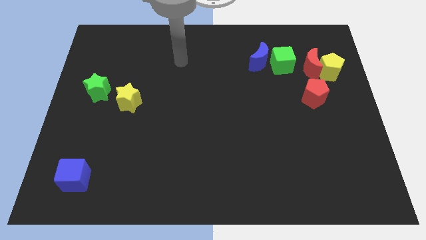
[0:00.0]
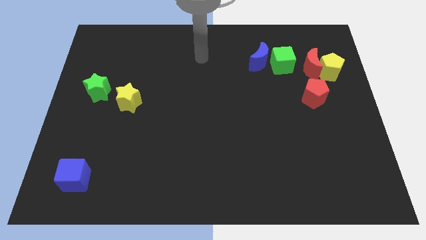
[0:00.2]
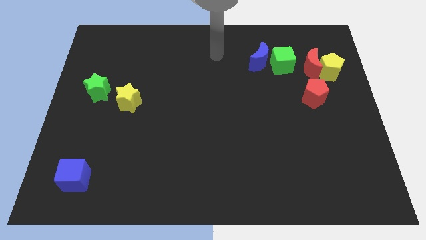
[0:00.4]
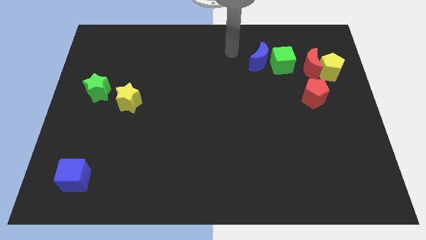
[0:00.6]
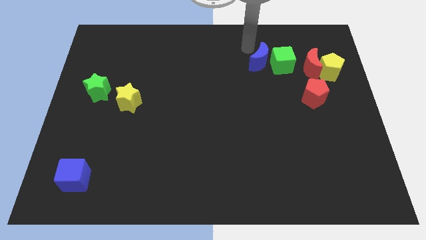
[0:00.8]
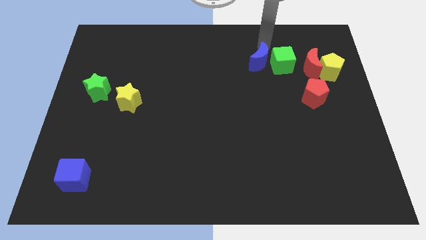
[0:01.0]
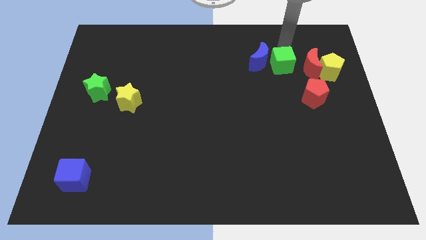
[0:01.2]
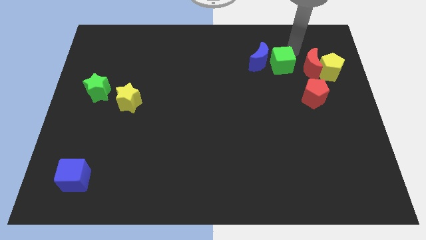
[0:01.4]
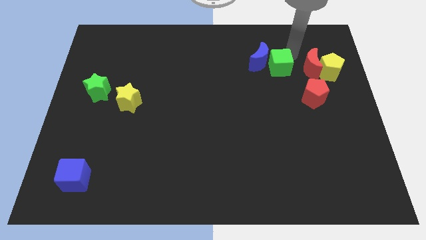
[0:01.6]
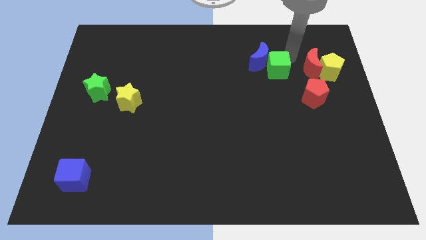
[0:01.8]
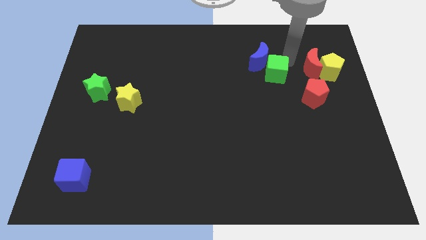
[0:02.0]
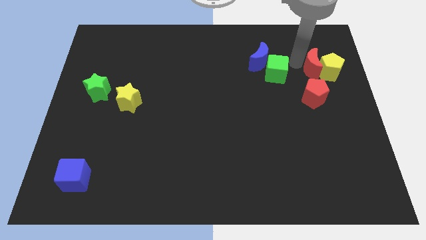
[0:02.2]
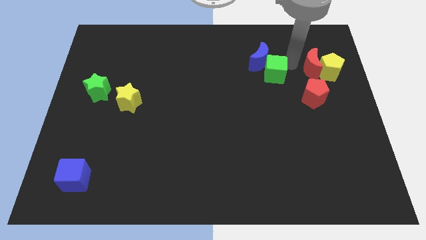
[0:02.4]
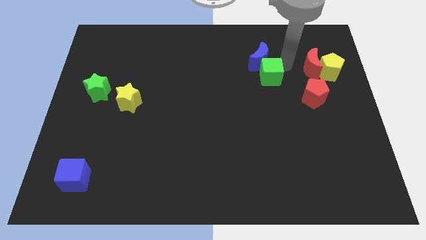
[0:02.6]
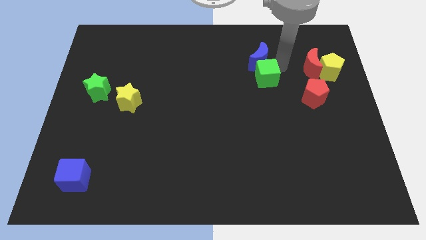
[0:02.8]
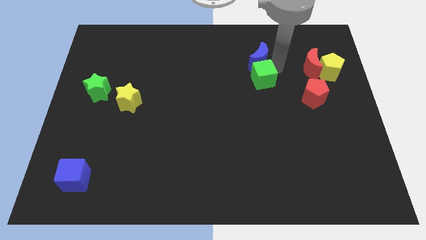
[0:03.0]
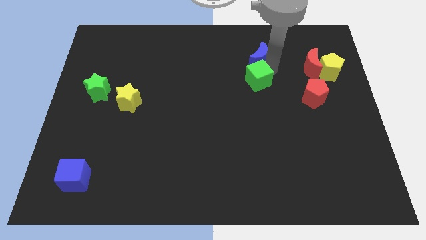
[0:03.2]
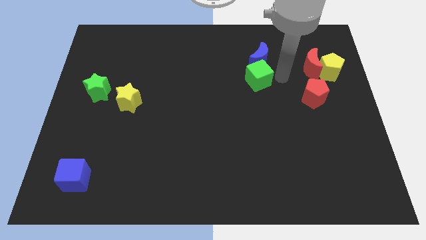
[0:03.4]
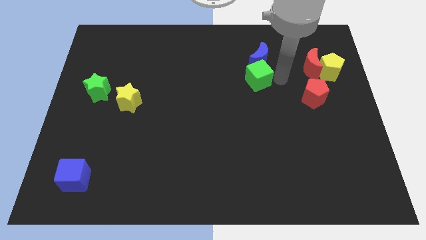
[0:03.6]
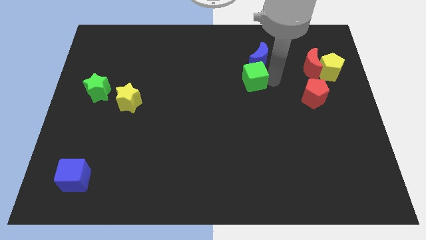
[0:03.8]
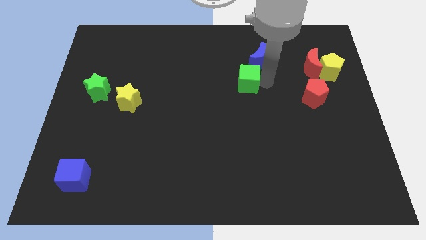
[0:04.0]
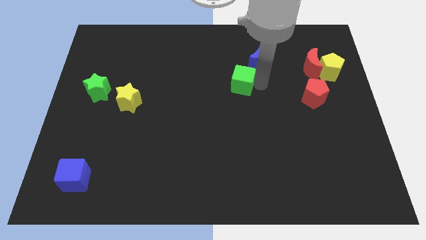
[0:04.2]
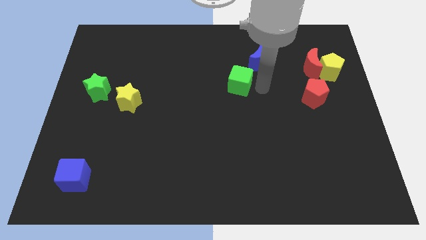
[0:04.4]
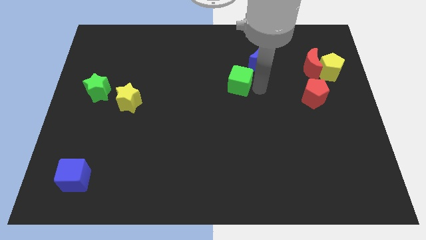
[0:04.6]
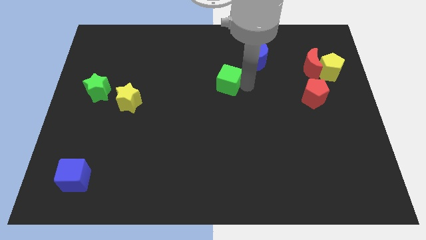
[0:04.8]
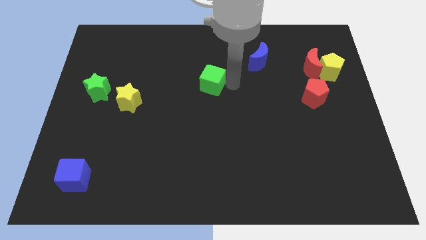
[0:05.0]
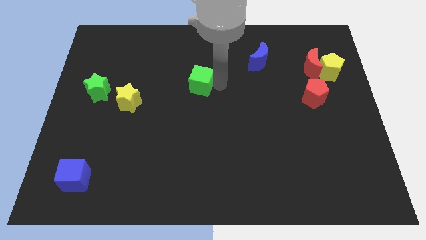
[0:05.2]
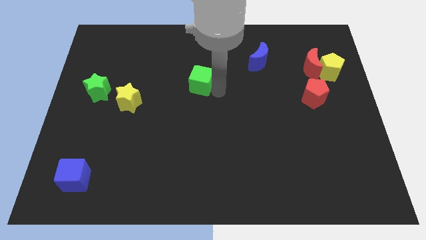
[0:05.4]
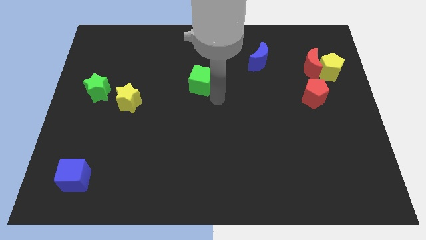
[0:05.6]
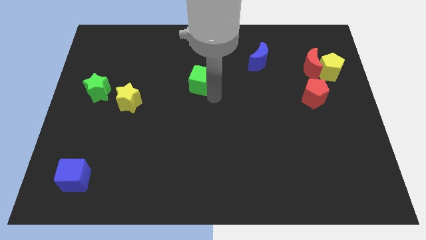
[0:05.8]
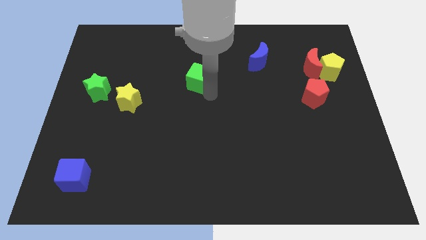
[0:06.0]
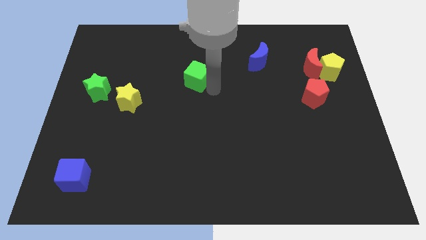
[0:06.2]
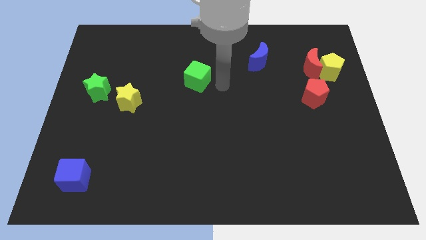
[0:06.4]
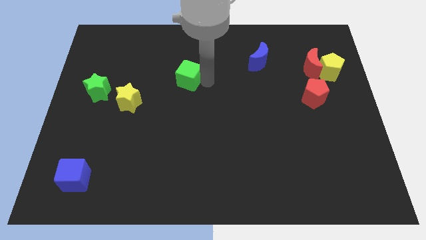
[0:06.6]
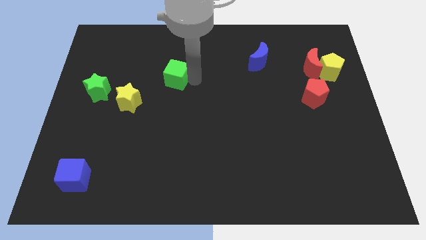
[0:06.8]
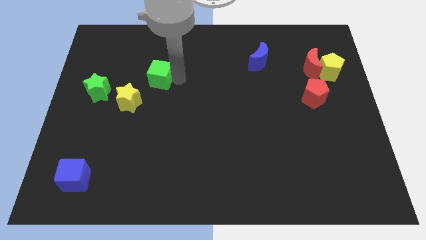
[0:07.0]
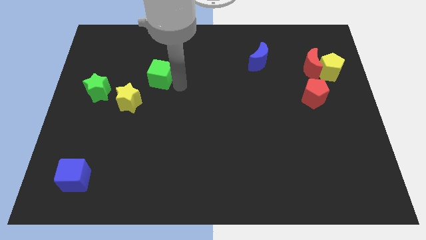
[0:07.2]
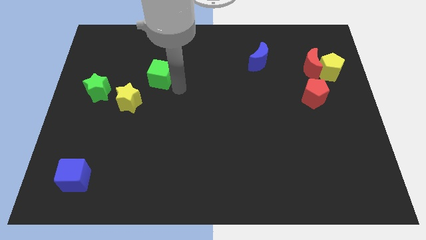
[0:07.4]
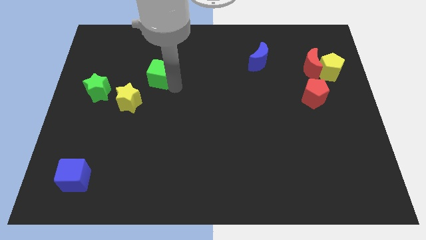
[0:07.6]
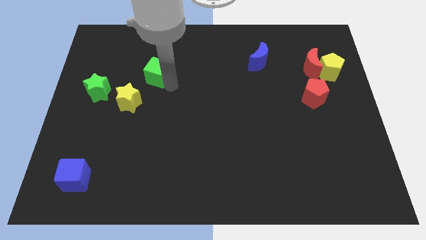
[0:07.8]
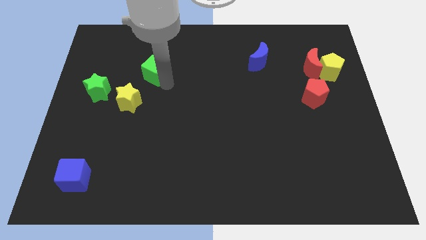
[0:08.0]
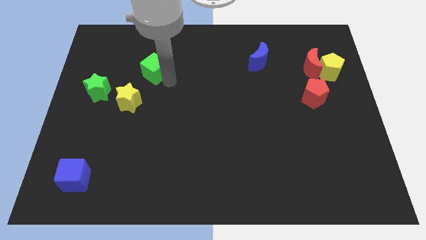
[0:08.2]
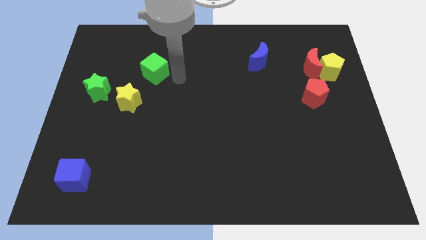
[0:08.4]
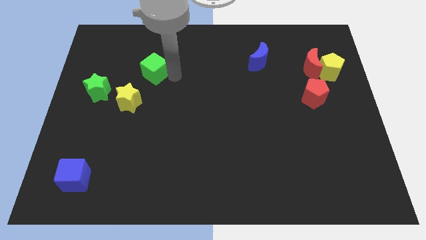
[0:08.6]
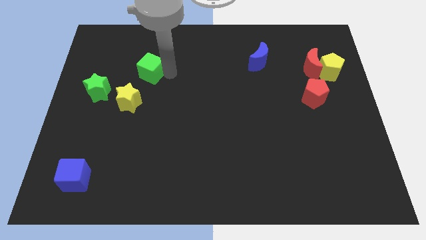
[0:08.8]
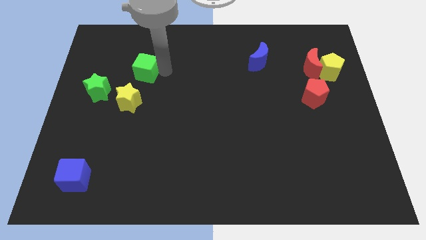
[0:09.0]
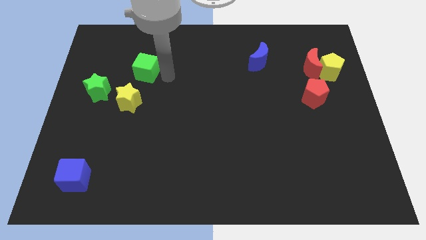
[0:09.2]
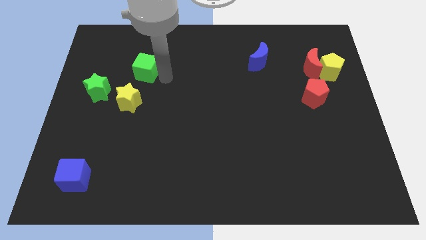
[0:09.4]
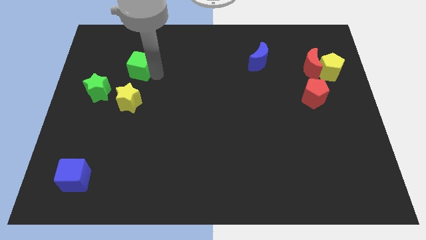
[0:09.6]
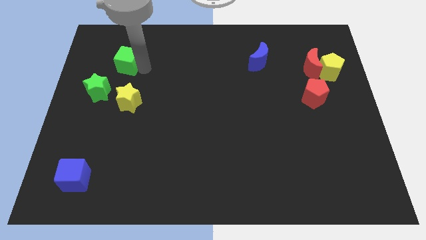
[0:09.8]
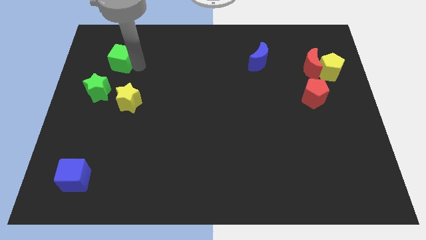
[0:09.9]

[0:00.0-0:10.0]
put the green cube to the top of the green star

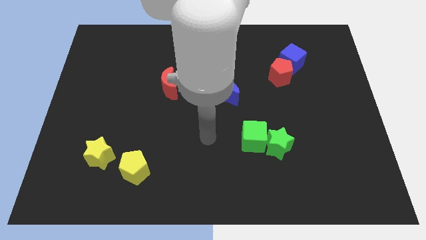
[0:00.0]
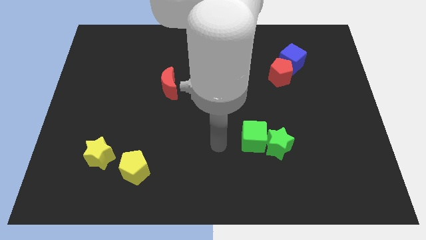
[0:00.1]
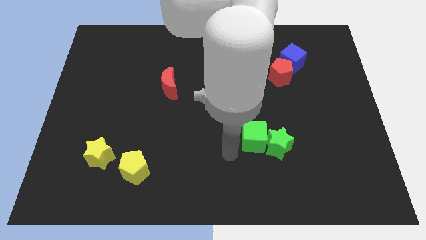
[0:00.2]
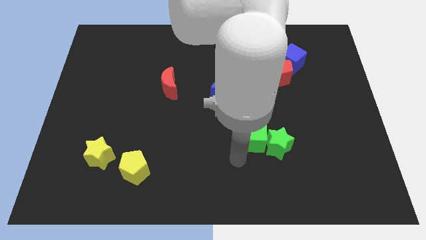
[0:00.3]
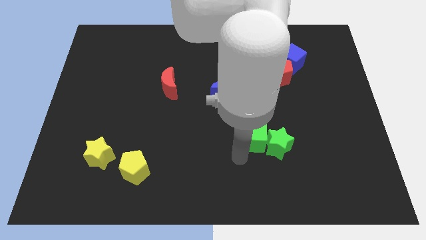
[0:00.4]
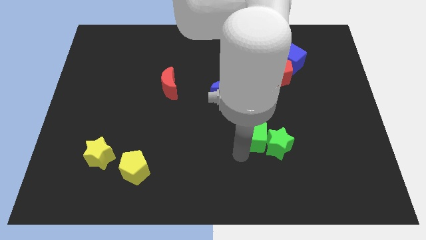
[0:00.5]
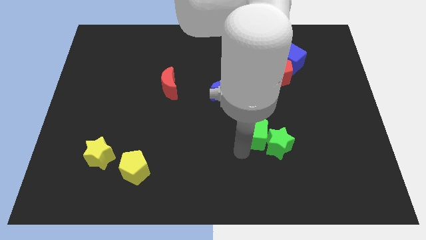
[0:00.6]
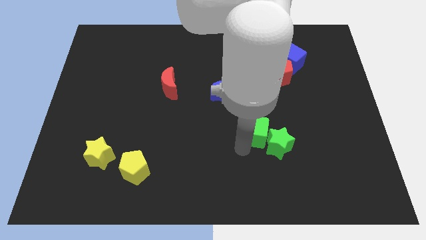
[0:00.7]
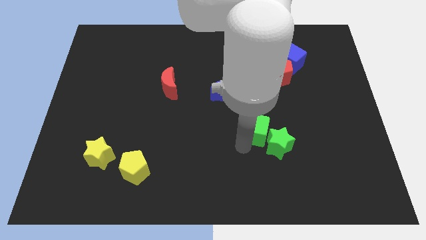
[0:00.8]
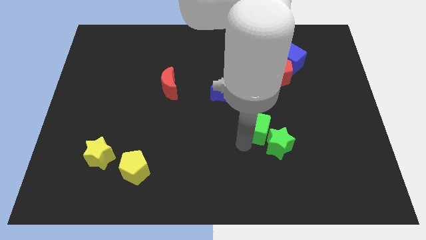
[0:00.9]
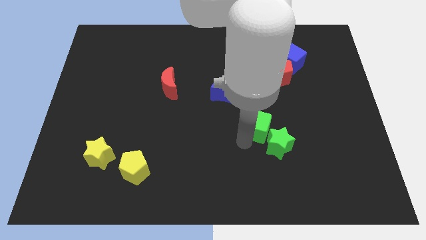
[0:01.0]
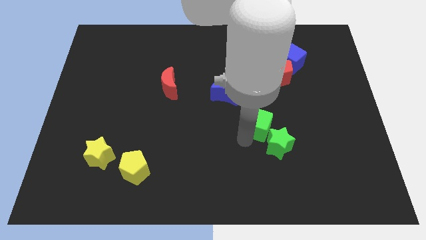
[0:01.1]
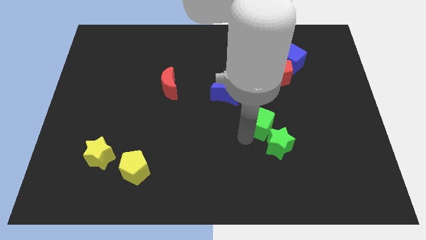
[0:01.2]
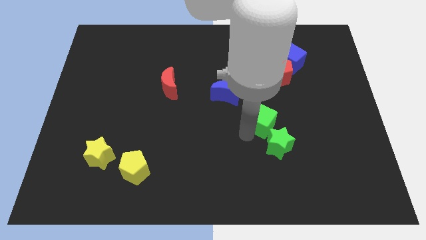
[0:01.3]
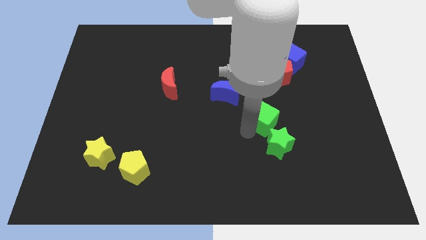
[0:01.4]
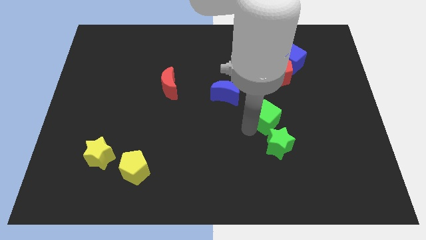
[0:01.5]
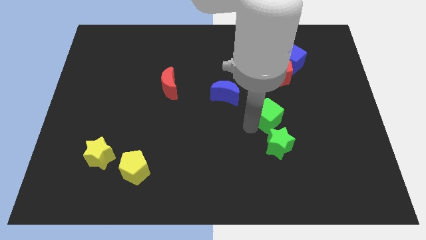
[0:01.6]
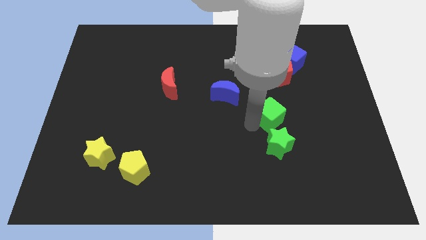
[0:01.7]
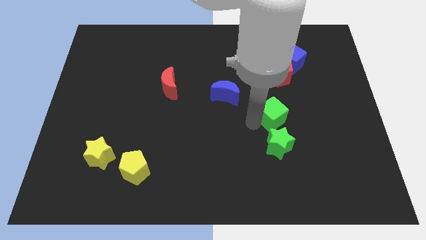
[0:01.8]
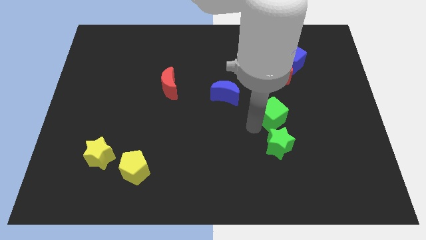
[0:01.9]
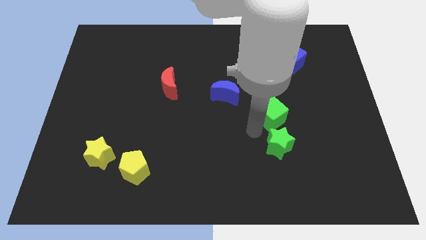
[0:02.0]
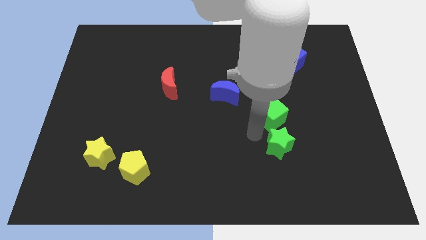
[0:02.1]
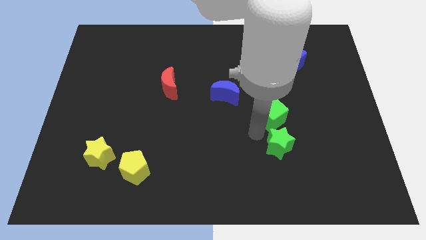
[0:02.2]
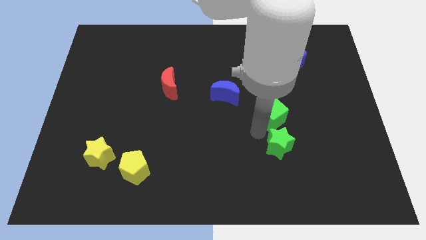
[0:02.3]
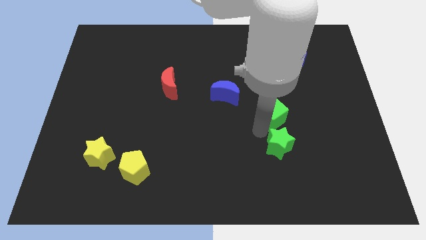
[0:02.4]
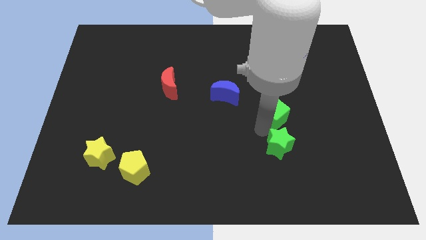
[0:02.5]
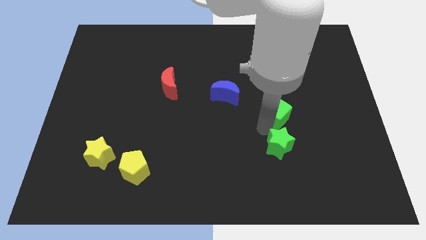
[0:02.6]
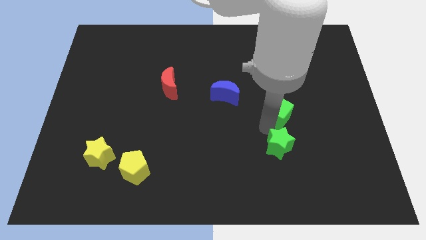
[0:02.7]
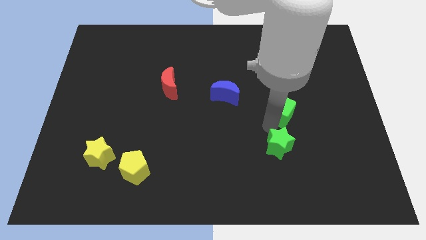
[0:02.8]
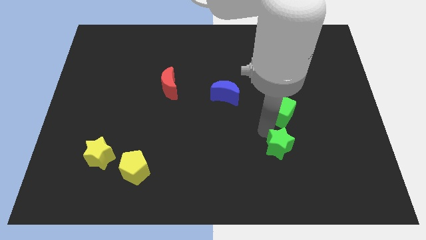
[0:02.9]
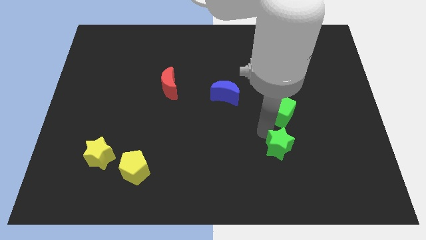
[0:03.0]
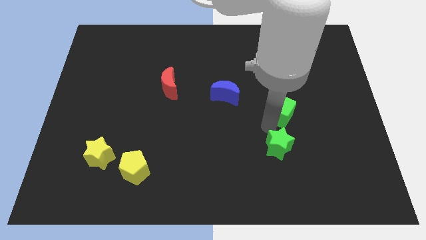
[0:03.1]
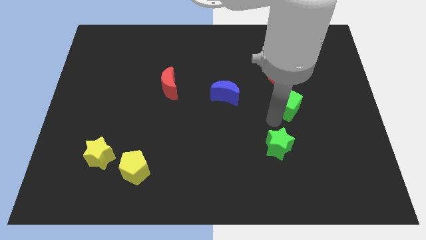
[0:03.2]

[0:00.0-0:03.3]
move the green cube to the bottom of the blue cube
